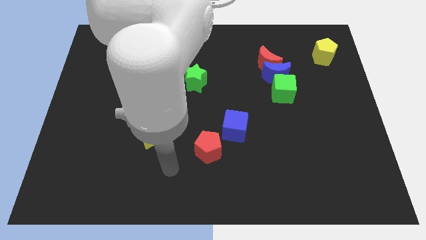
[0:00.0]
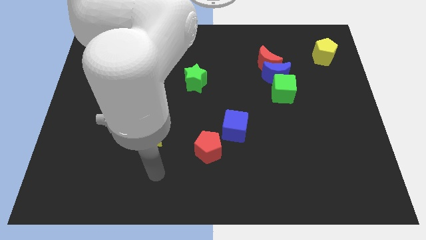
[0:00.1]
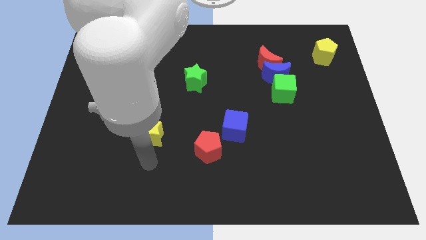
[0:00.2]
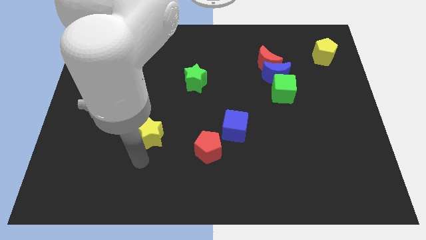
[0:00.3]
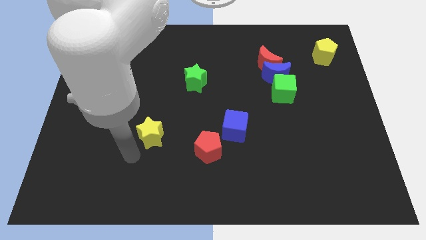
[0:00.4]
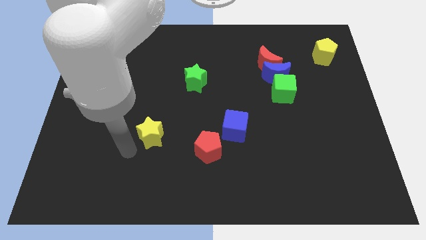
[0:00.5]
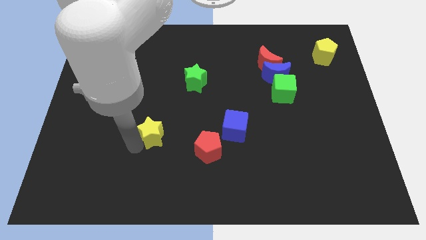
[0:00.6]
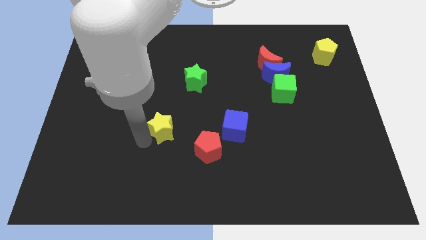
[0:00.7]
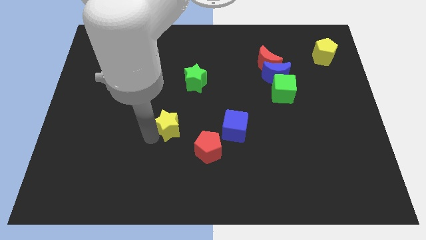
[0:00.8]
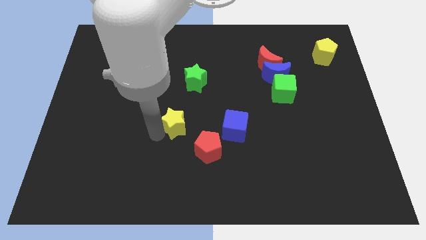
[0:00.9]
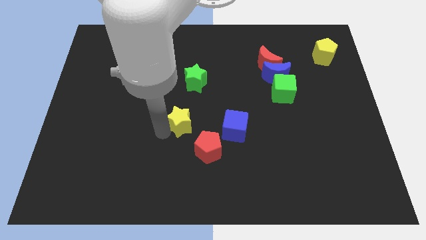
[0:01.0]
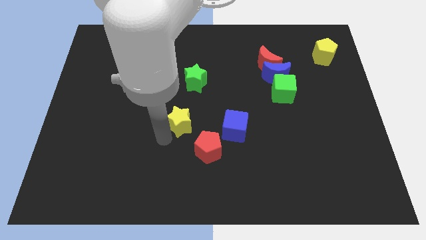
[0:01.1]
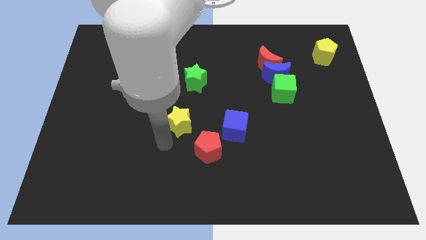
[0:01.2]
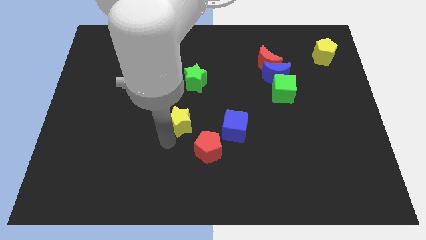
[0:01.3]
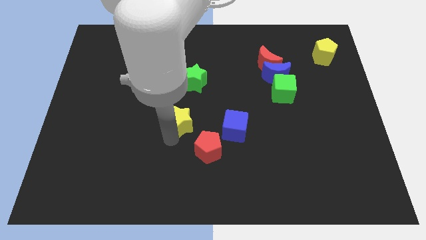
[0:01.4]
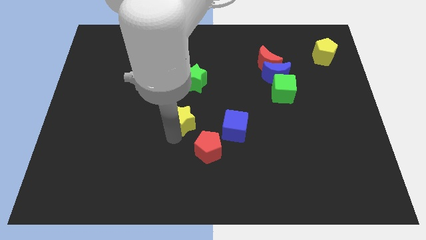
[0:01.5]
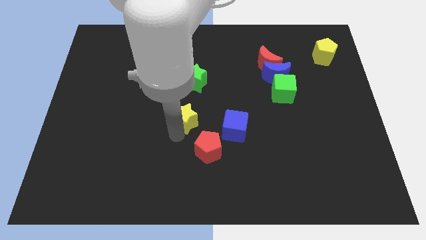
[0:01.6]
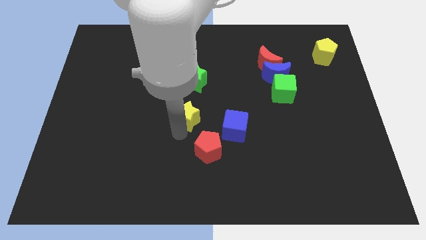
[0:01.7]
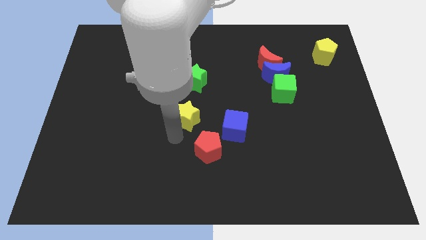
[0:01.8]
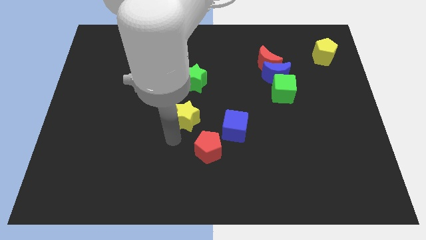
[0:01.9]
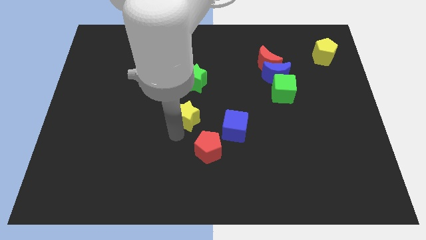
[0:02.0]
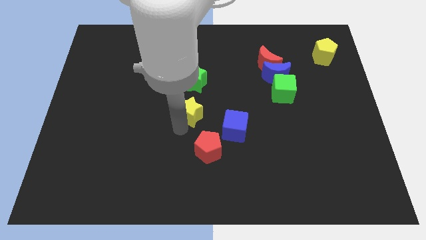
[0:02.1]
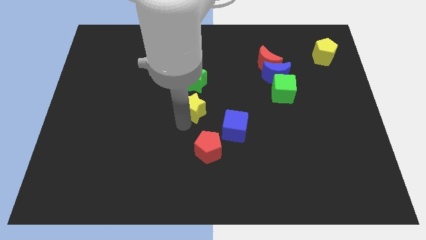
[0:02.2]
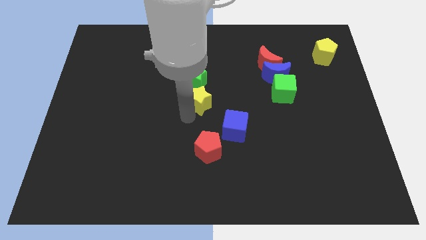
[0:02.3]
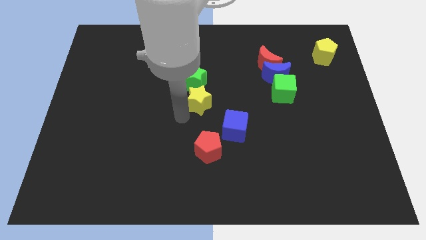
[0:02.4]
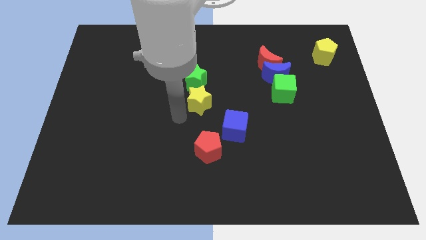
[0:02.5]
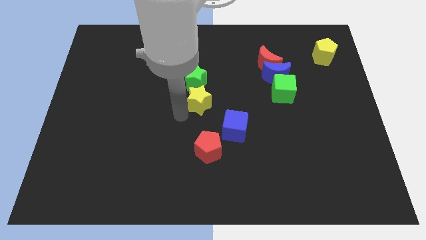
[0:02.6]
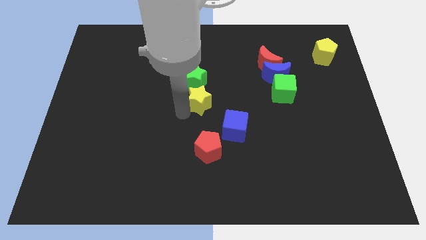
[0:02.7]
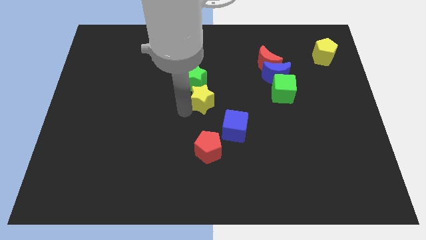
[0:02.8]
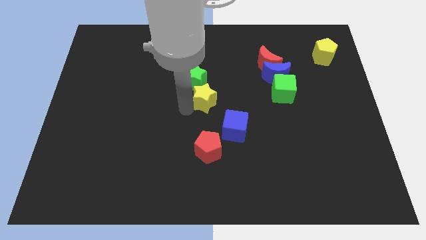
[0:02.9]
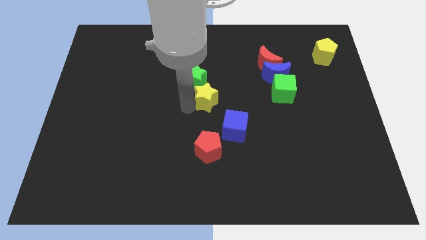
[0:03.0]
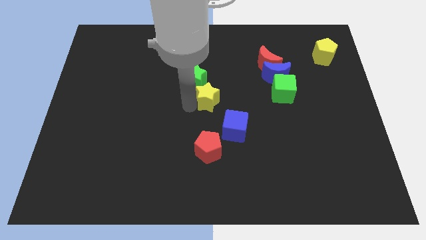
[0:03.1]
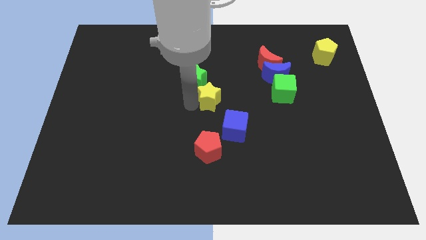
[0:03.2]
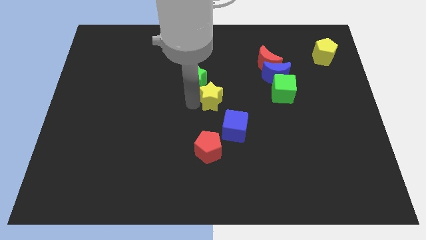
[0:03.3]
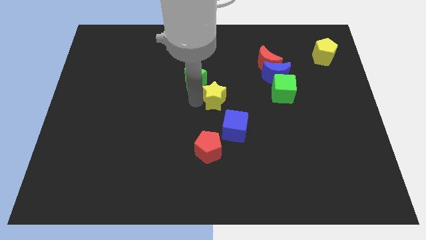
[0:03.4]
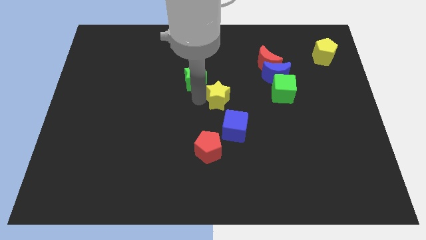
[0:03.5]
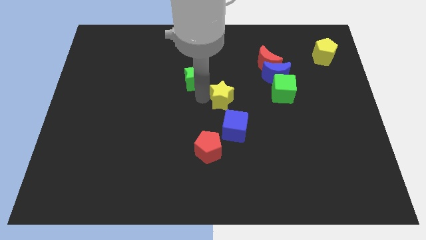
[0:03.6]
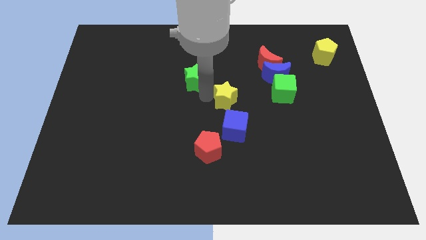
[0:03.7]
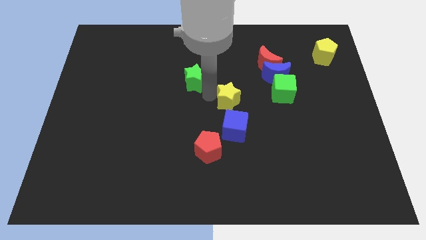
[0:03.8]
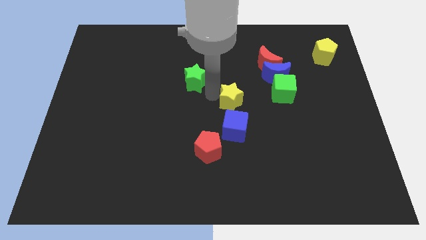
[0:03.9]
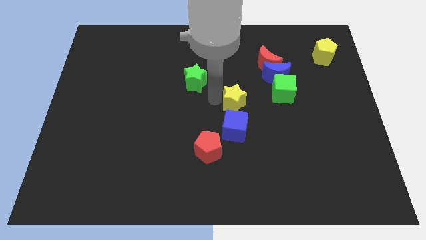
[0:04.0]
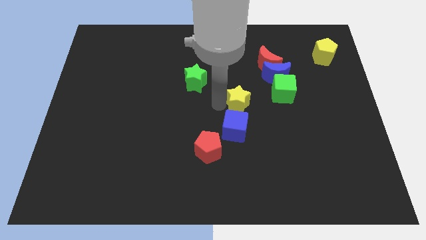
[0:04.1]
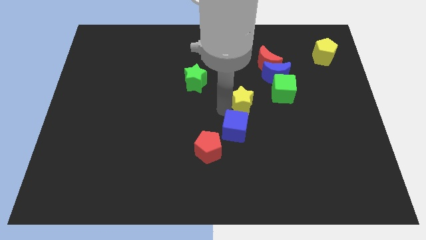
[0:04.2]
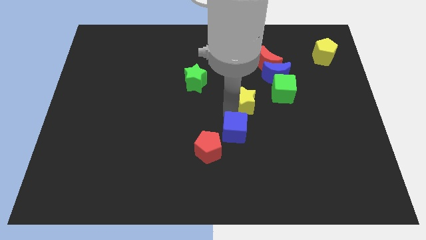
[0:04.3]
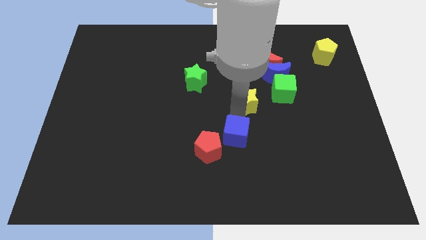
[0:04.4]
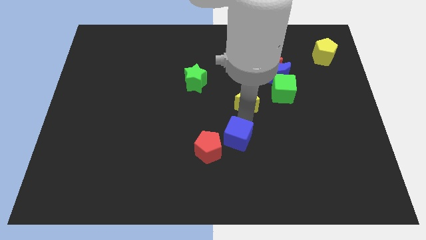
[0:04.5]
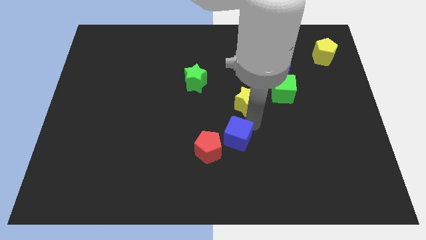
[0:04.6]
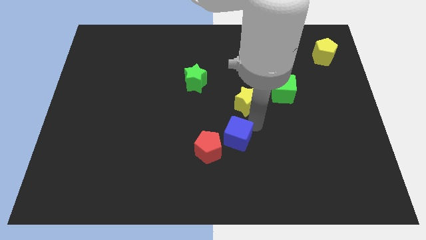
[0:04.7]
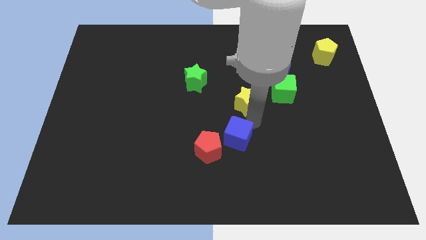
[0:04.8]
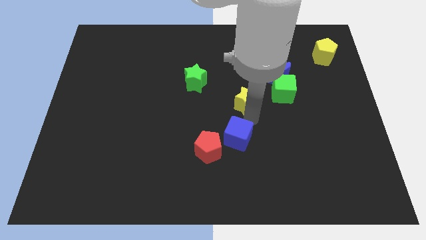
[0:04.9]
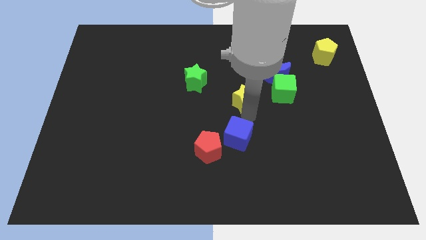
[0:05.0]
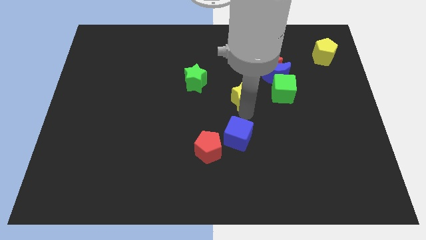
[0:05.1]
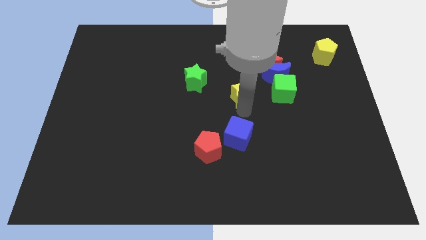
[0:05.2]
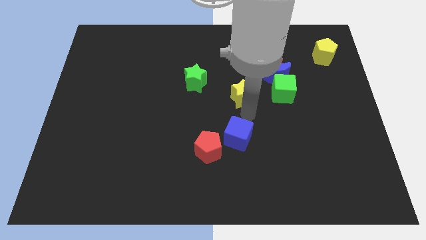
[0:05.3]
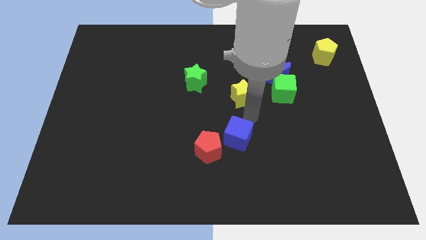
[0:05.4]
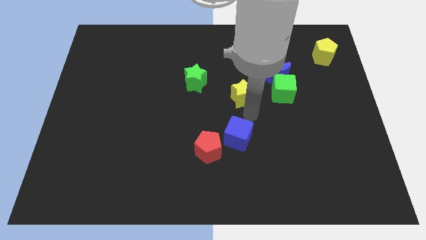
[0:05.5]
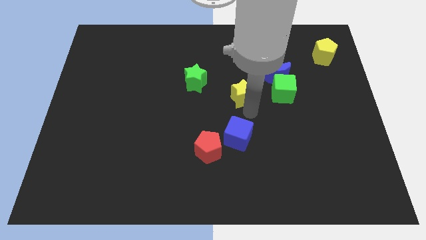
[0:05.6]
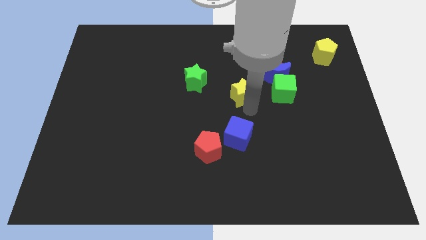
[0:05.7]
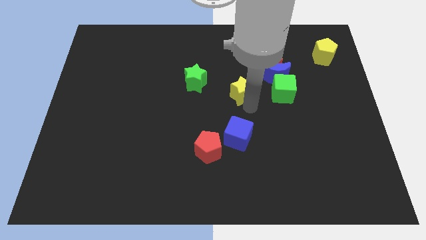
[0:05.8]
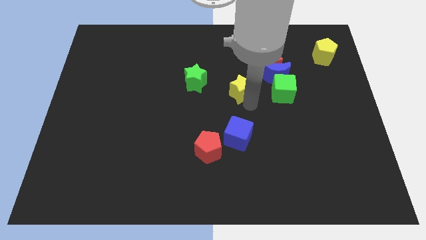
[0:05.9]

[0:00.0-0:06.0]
push the yellow star to the left of the blue moon

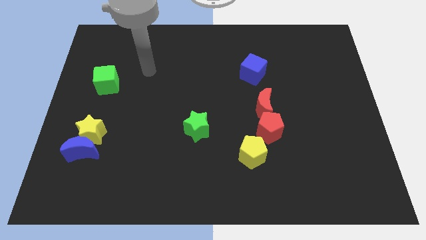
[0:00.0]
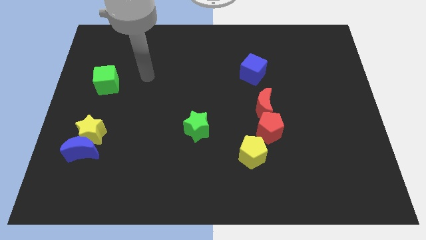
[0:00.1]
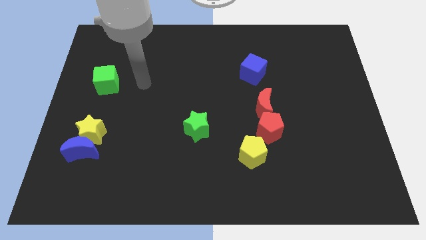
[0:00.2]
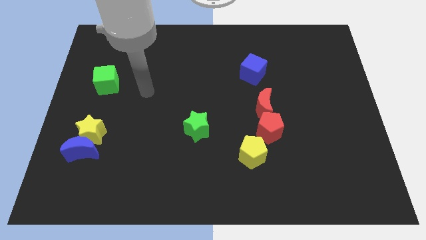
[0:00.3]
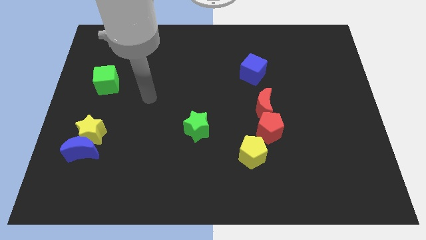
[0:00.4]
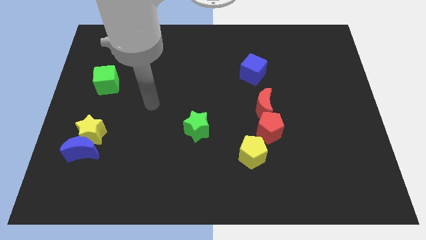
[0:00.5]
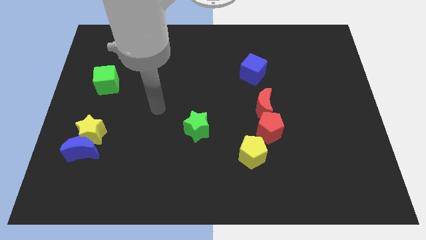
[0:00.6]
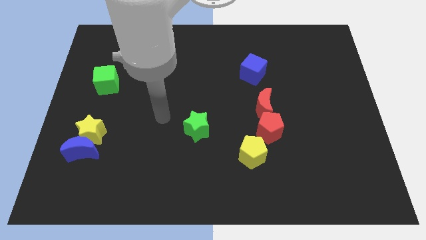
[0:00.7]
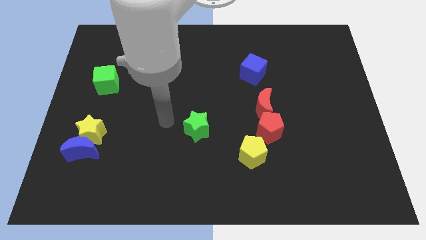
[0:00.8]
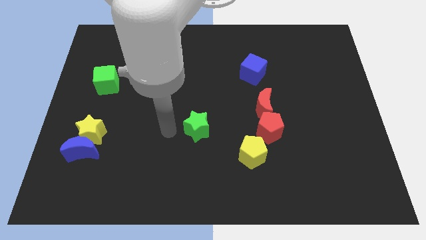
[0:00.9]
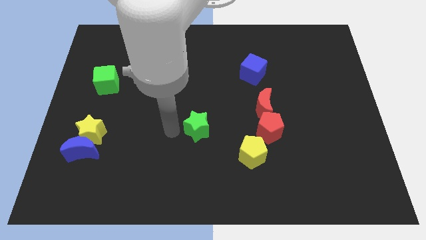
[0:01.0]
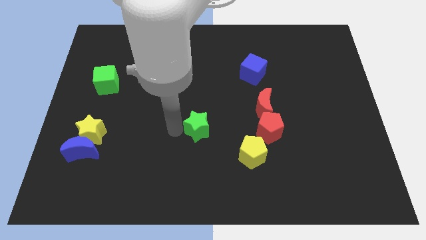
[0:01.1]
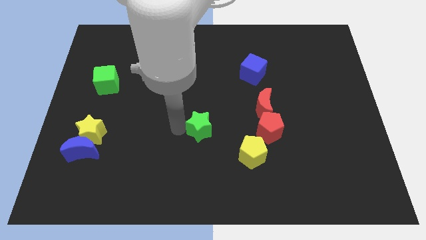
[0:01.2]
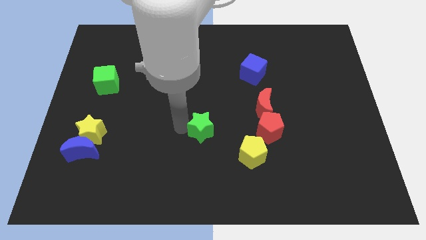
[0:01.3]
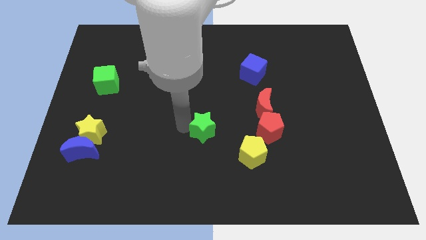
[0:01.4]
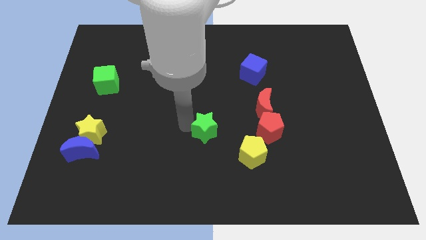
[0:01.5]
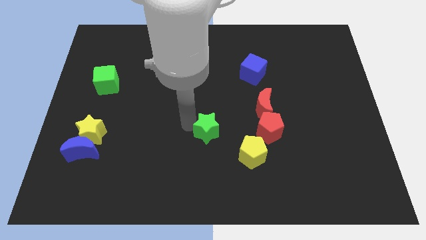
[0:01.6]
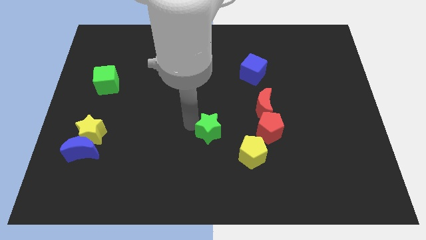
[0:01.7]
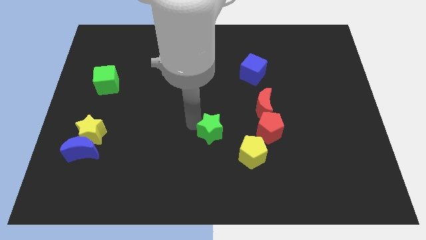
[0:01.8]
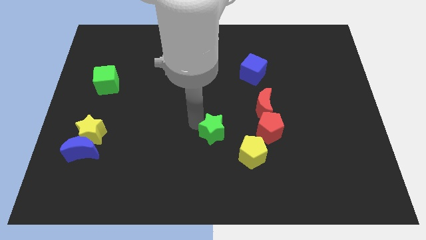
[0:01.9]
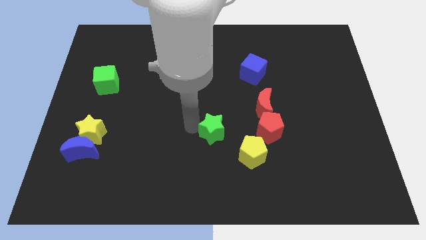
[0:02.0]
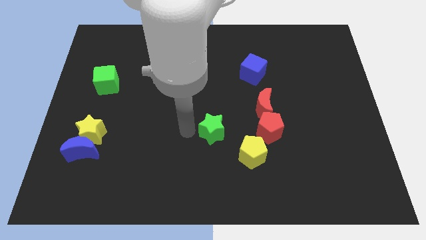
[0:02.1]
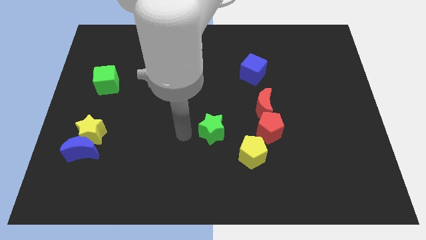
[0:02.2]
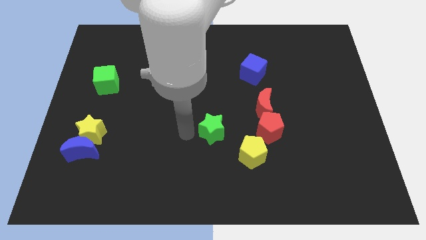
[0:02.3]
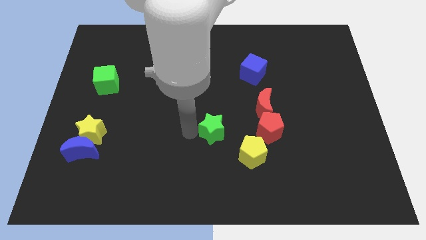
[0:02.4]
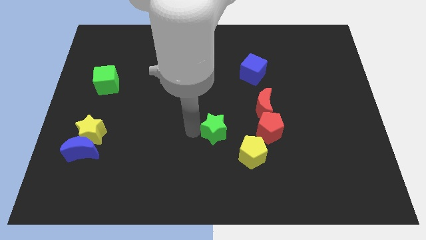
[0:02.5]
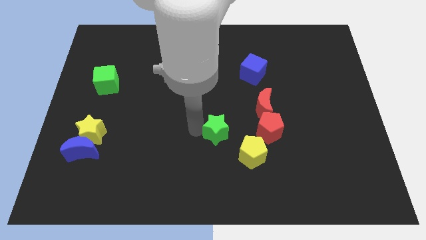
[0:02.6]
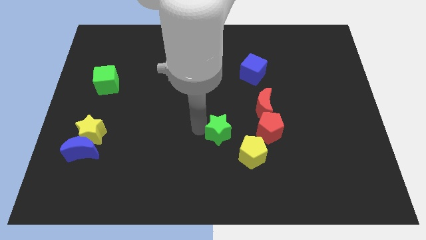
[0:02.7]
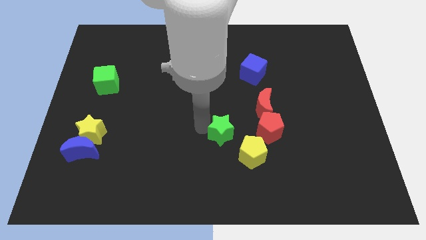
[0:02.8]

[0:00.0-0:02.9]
put the green star diagonally down and to the left of the red moon
